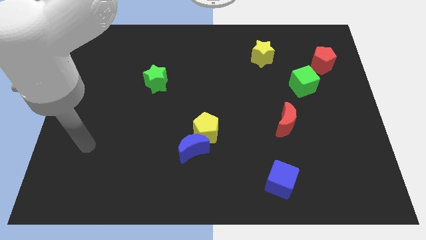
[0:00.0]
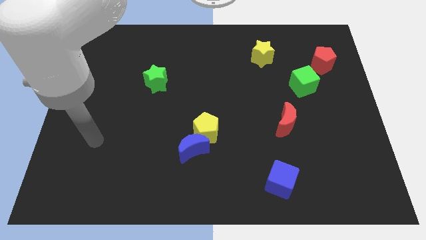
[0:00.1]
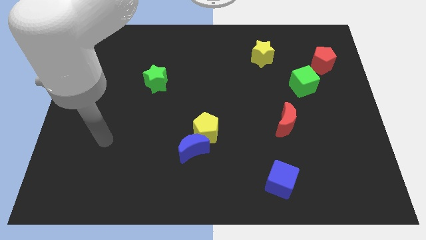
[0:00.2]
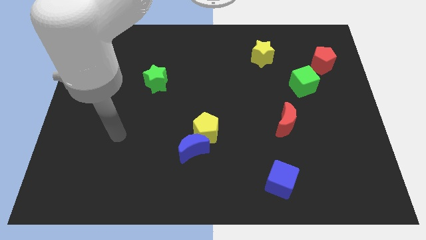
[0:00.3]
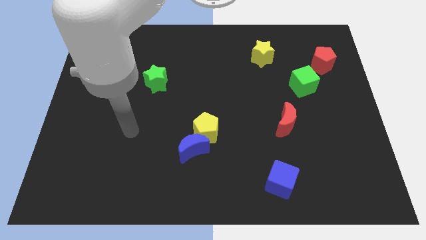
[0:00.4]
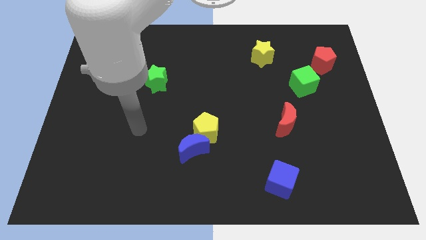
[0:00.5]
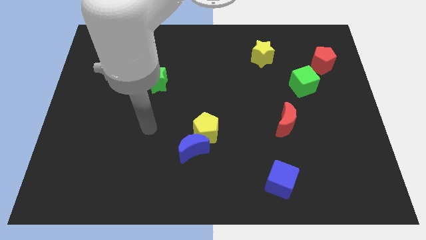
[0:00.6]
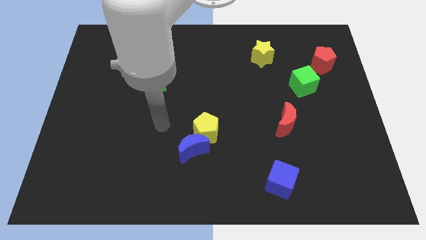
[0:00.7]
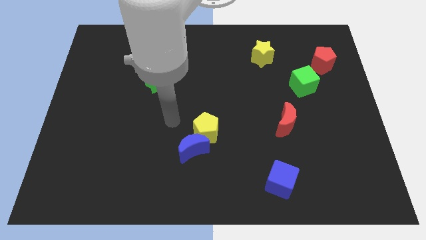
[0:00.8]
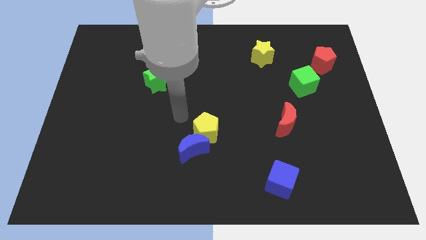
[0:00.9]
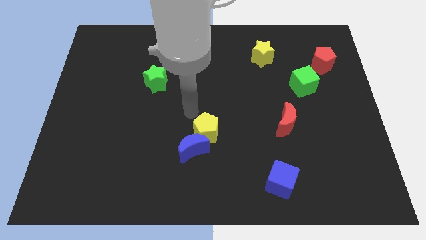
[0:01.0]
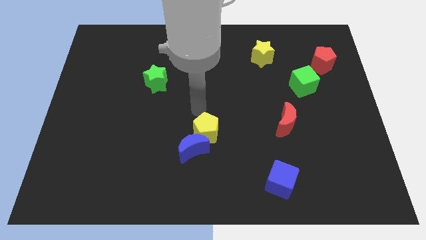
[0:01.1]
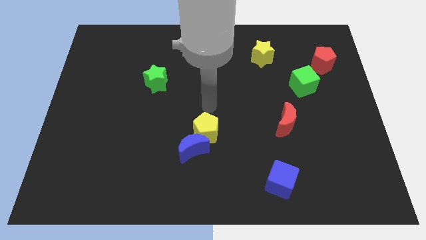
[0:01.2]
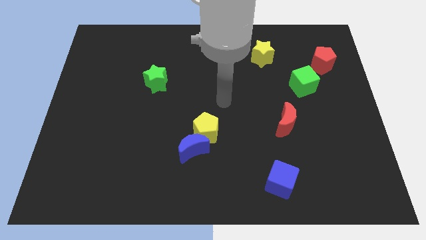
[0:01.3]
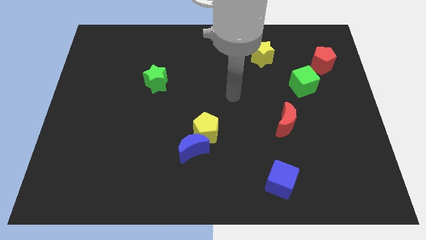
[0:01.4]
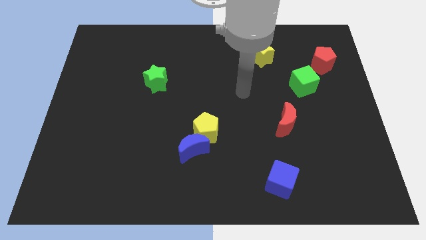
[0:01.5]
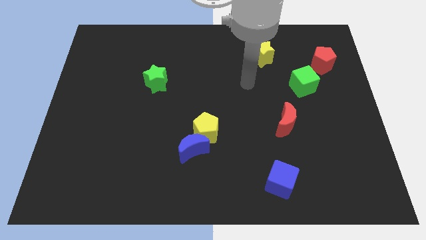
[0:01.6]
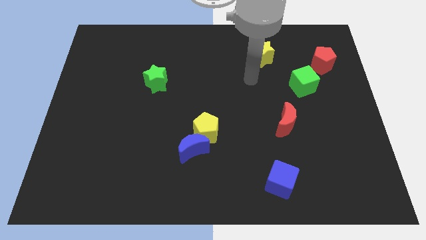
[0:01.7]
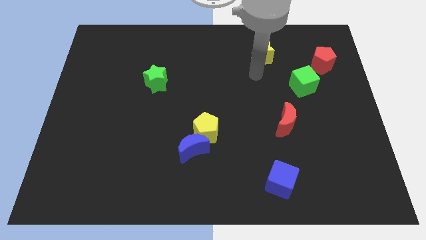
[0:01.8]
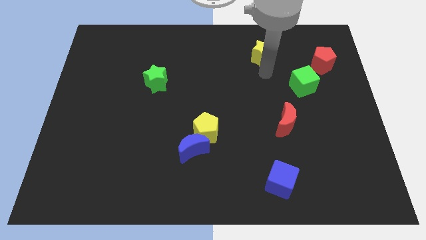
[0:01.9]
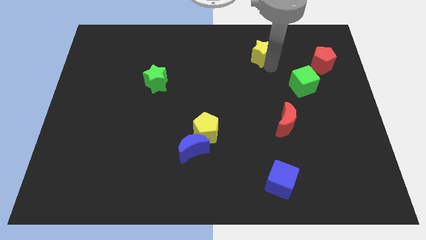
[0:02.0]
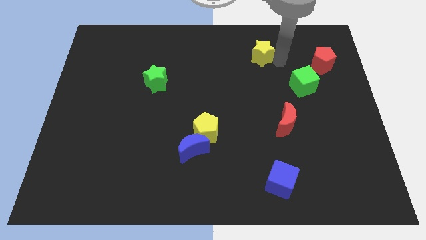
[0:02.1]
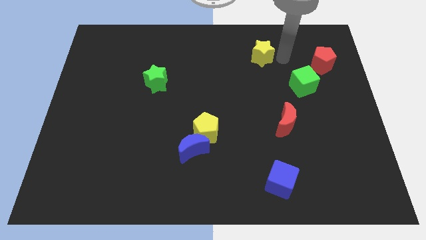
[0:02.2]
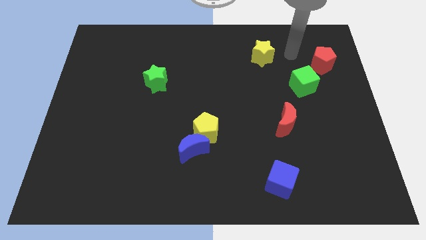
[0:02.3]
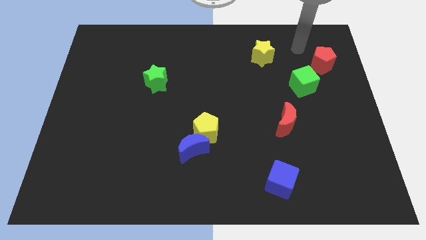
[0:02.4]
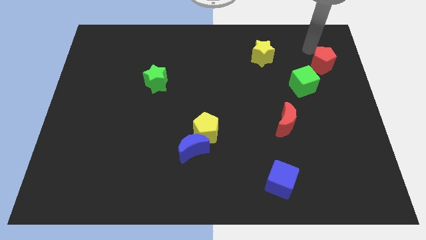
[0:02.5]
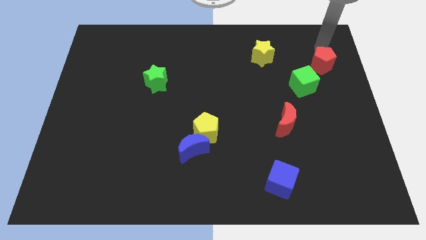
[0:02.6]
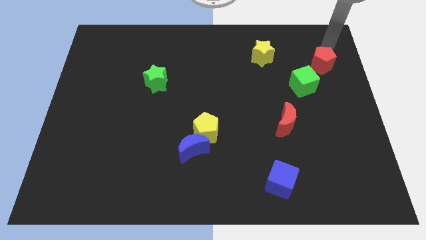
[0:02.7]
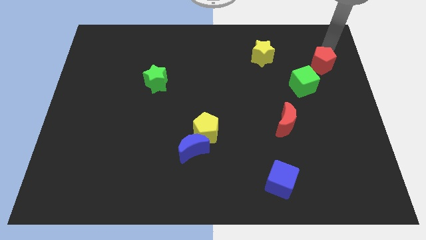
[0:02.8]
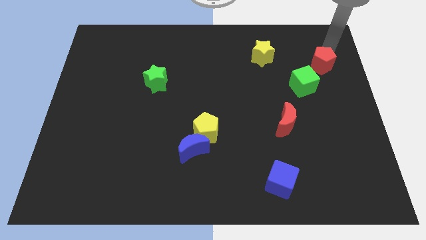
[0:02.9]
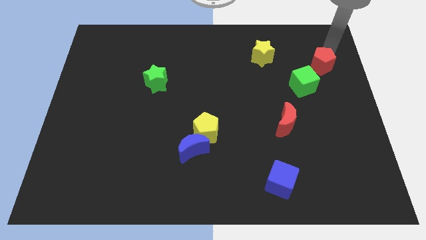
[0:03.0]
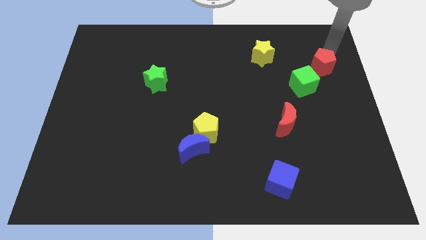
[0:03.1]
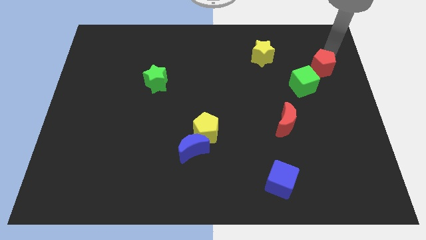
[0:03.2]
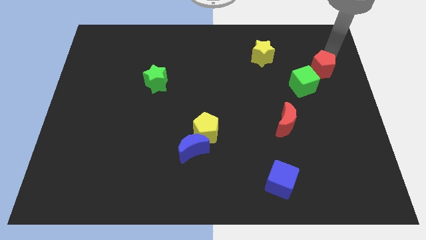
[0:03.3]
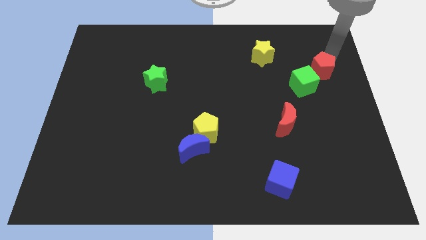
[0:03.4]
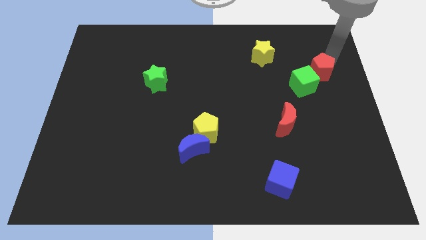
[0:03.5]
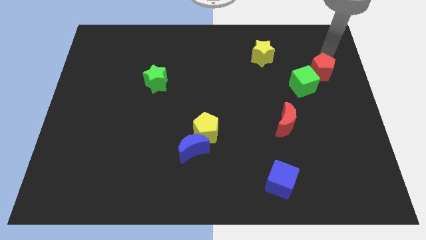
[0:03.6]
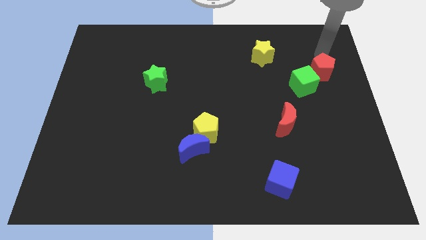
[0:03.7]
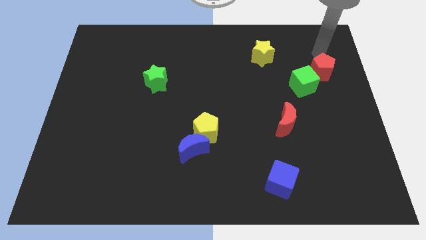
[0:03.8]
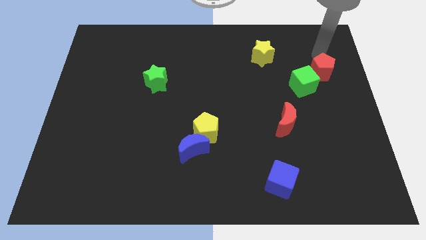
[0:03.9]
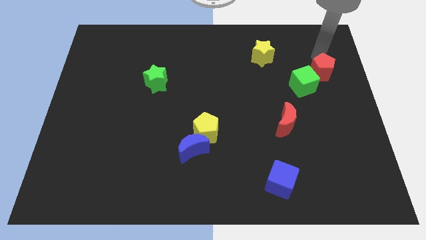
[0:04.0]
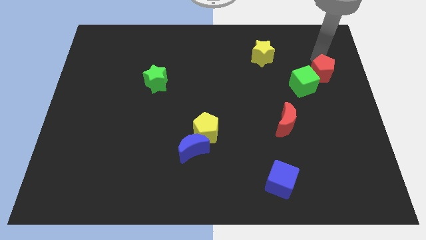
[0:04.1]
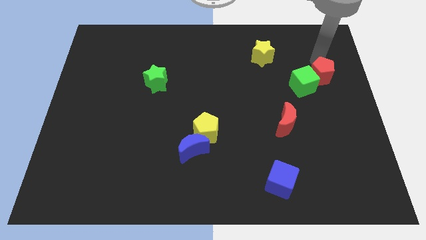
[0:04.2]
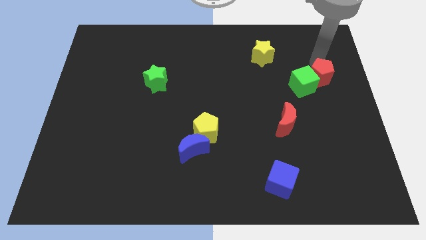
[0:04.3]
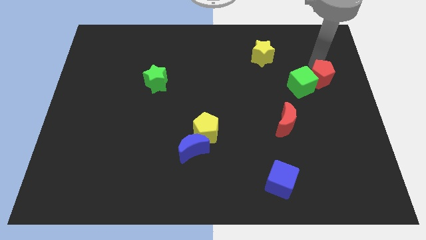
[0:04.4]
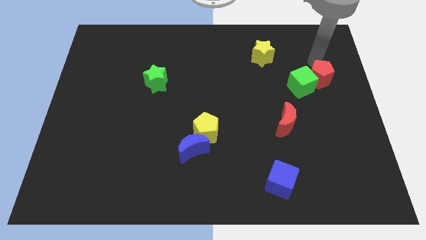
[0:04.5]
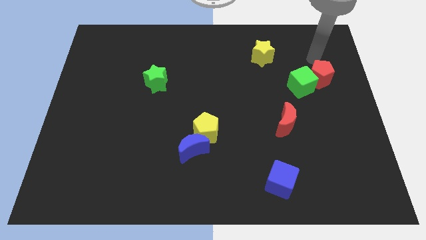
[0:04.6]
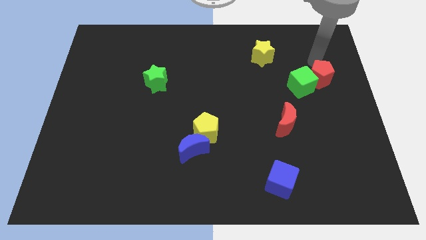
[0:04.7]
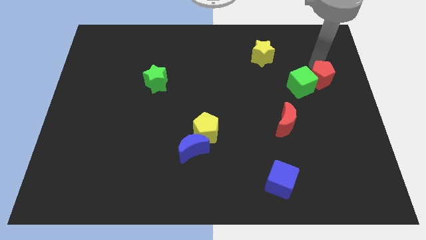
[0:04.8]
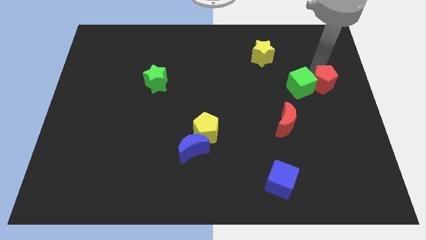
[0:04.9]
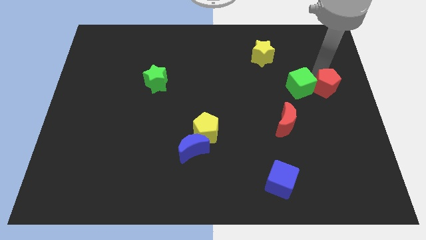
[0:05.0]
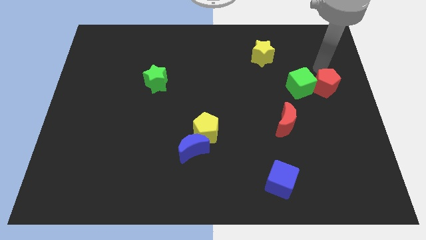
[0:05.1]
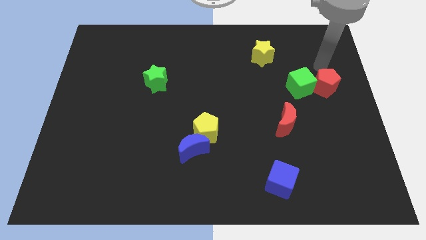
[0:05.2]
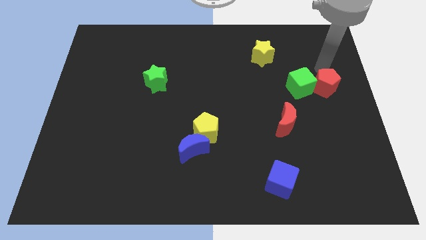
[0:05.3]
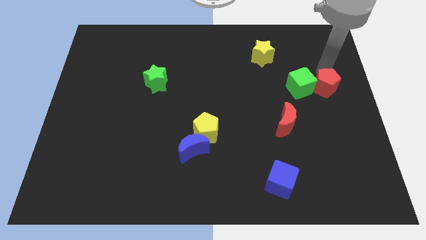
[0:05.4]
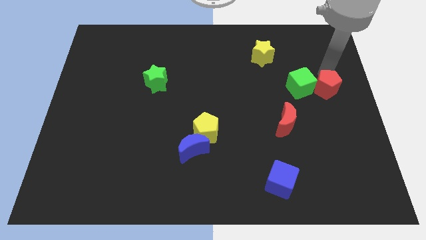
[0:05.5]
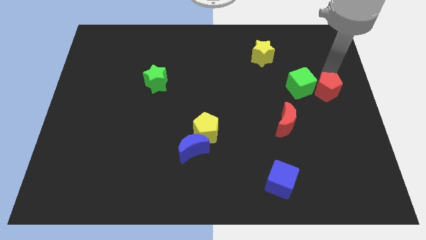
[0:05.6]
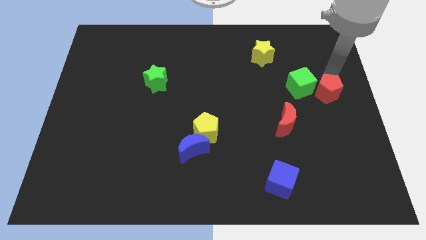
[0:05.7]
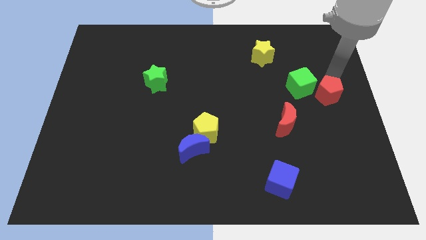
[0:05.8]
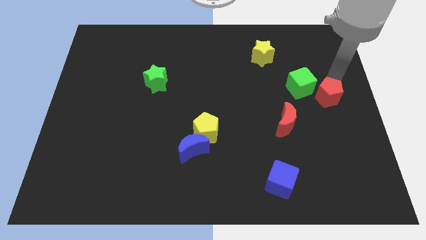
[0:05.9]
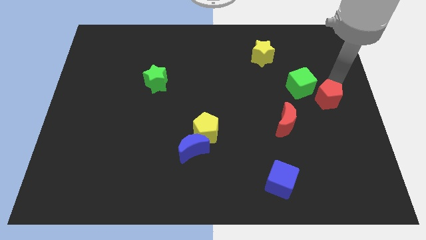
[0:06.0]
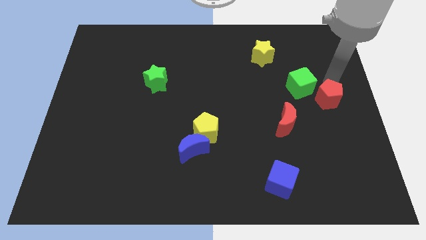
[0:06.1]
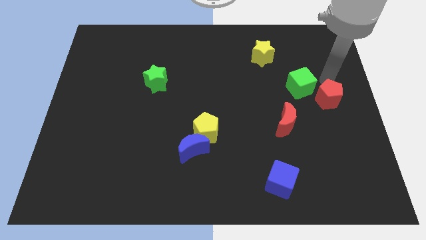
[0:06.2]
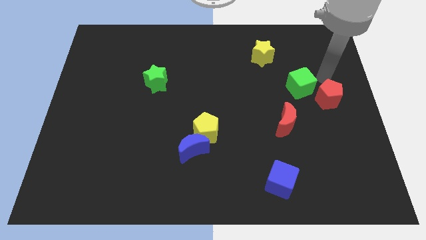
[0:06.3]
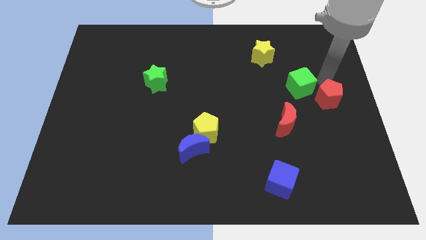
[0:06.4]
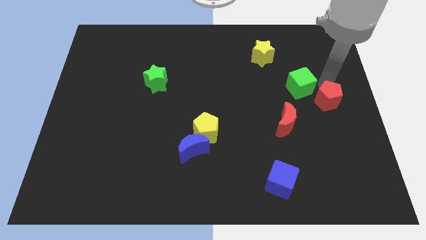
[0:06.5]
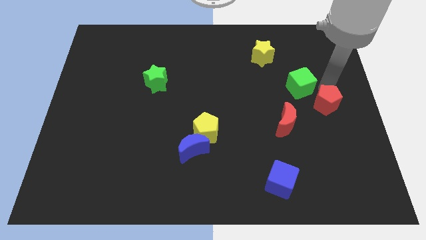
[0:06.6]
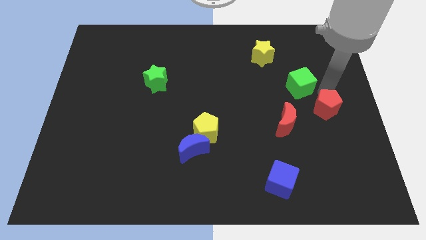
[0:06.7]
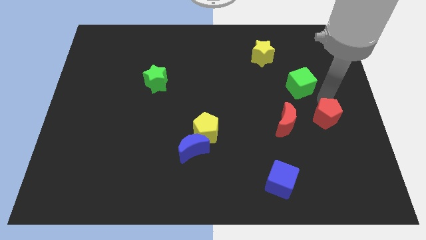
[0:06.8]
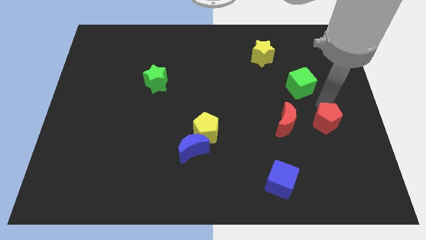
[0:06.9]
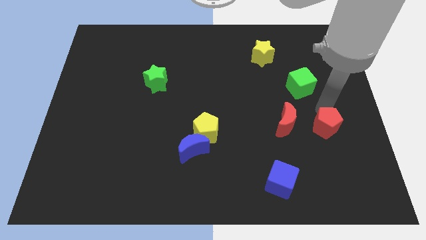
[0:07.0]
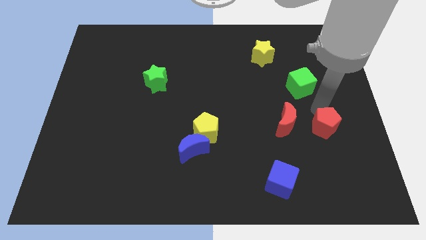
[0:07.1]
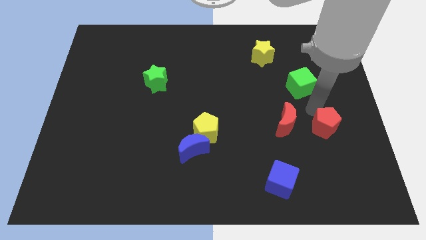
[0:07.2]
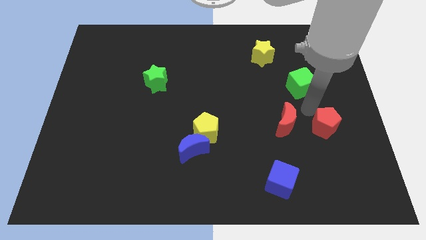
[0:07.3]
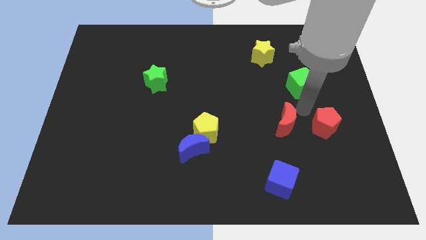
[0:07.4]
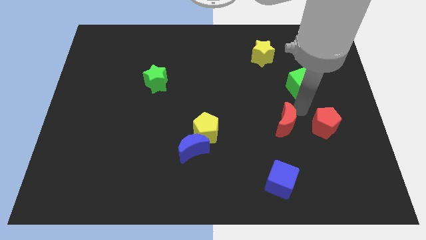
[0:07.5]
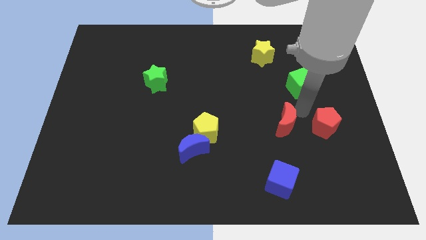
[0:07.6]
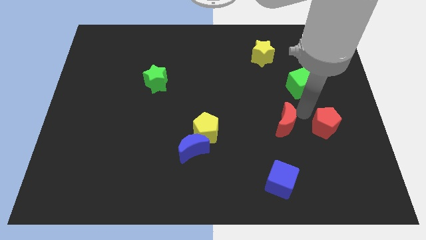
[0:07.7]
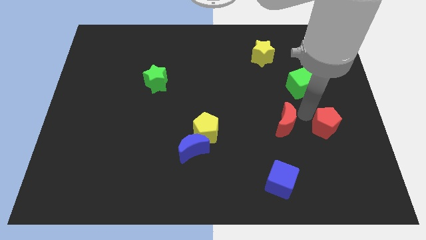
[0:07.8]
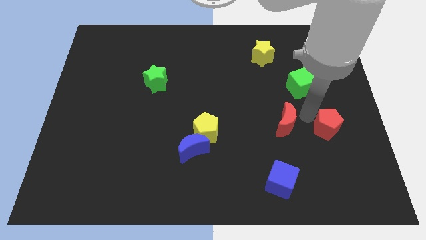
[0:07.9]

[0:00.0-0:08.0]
slide the red pentagon downwards
